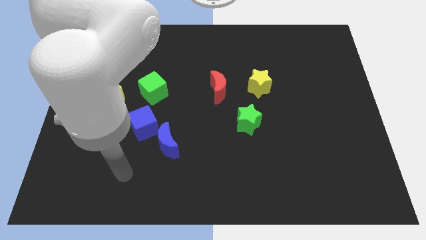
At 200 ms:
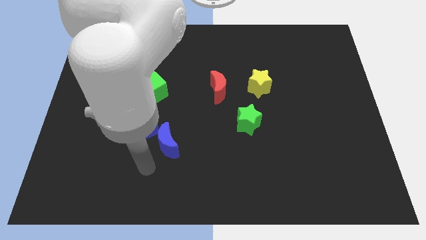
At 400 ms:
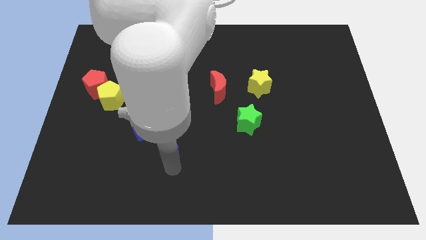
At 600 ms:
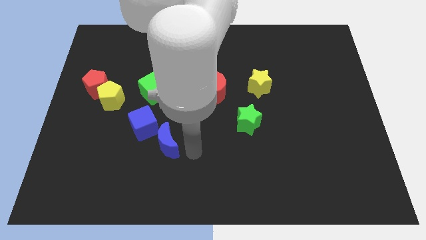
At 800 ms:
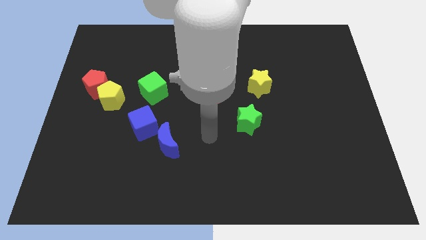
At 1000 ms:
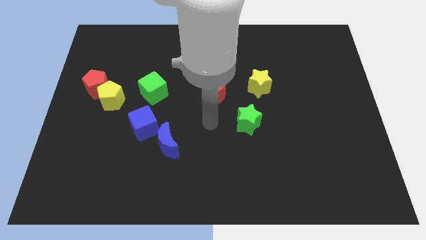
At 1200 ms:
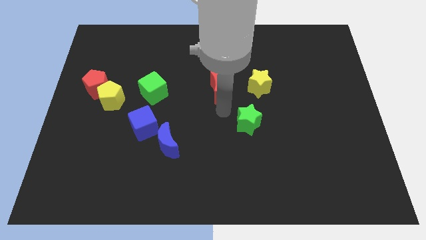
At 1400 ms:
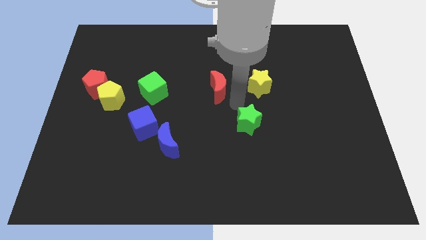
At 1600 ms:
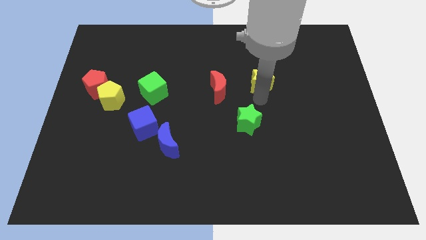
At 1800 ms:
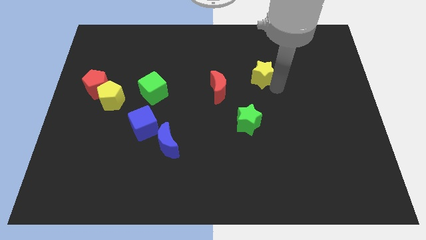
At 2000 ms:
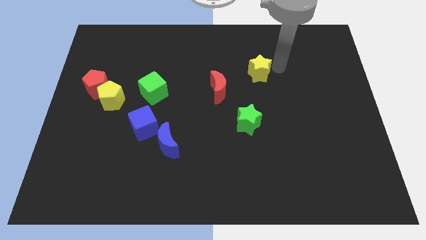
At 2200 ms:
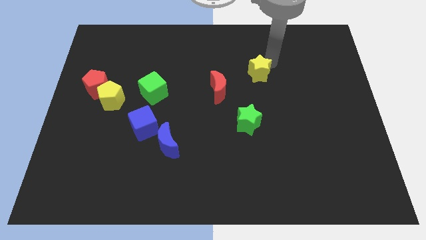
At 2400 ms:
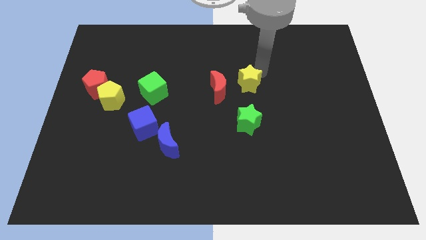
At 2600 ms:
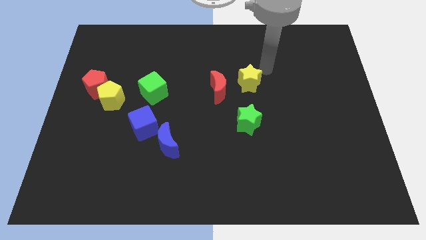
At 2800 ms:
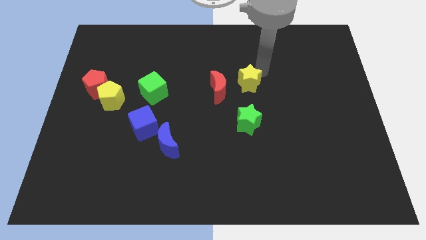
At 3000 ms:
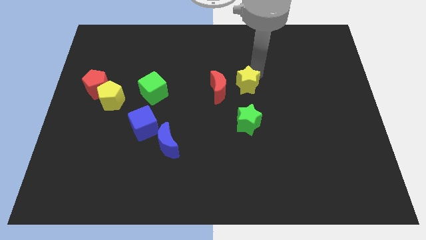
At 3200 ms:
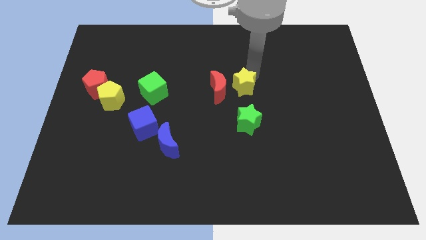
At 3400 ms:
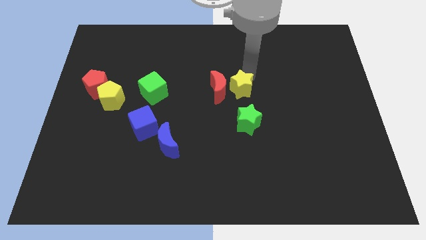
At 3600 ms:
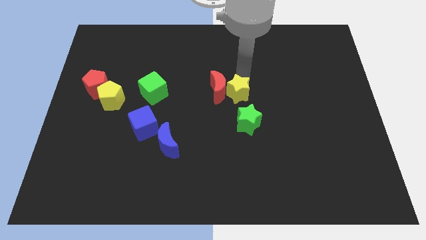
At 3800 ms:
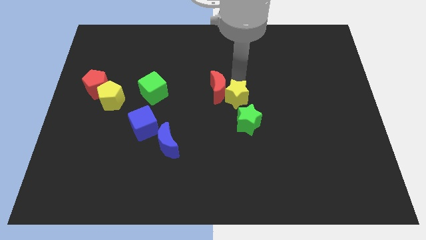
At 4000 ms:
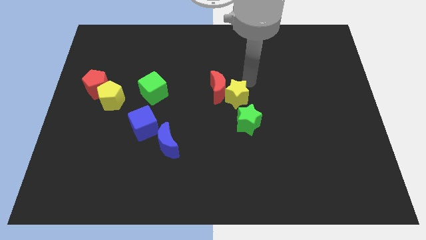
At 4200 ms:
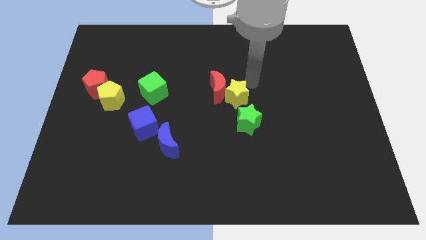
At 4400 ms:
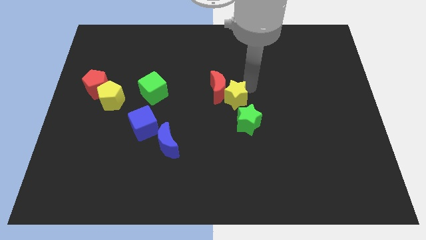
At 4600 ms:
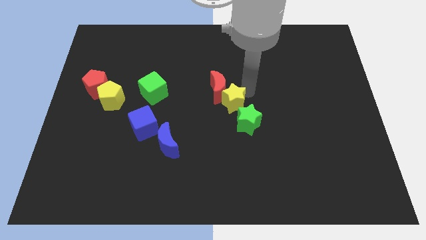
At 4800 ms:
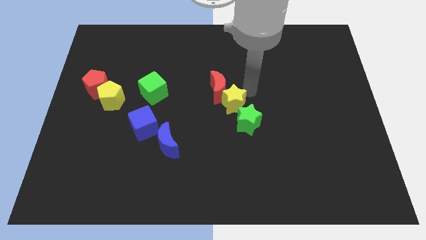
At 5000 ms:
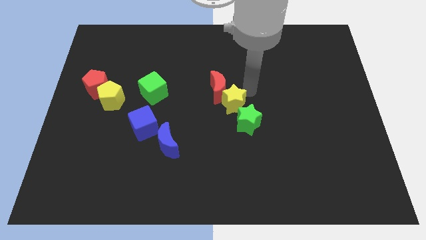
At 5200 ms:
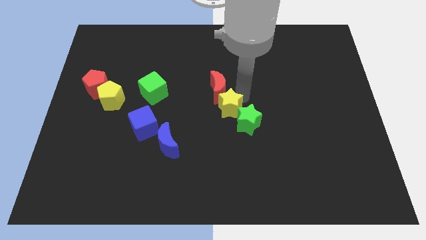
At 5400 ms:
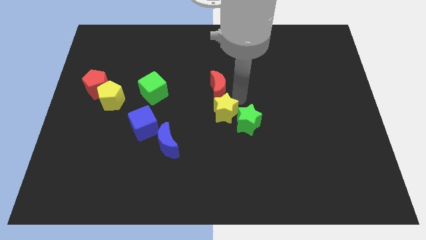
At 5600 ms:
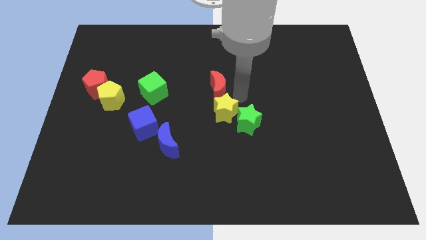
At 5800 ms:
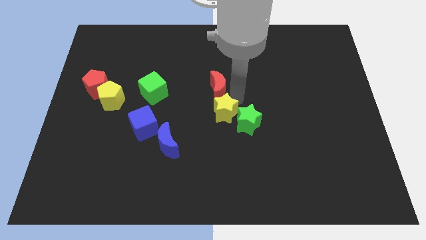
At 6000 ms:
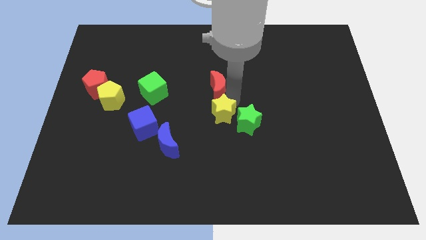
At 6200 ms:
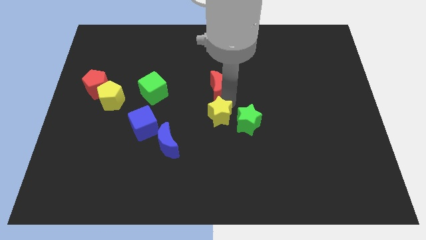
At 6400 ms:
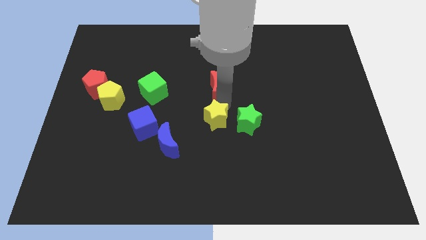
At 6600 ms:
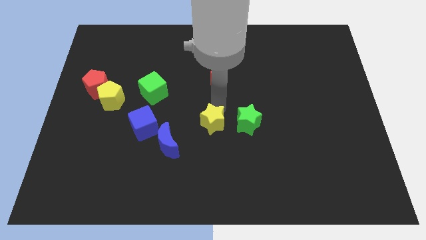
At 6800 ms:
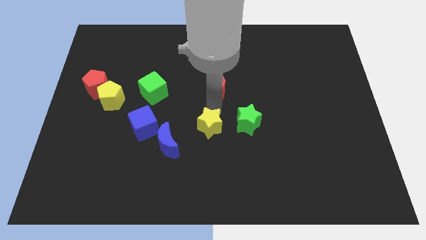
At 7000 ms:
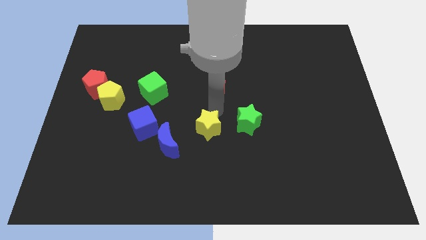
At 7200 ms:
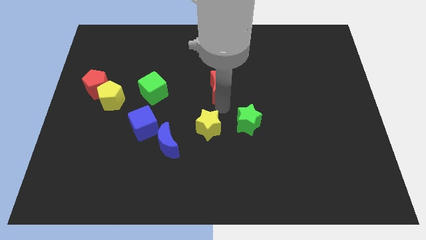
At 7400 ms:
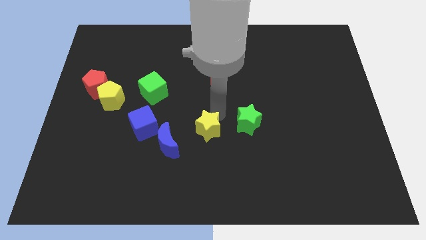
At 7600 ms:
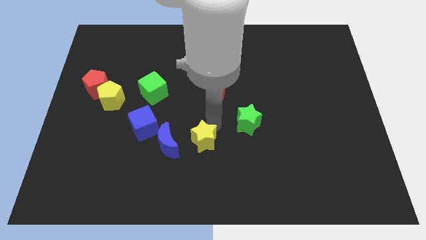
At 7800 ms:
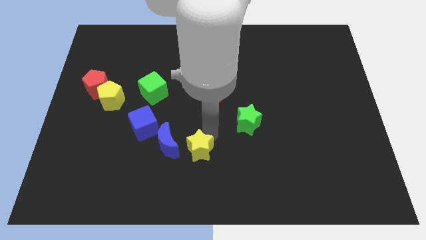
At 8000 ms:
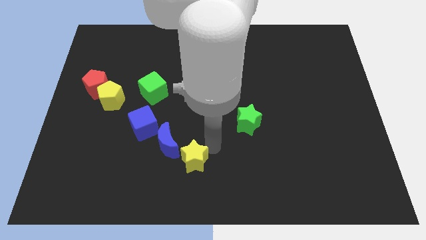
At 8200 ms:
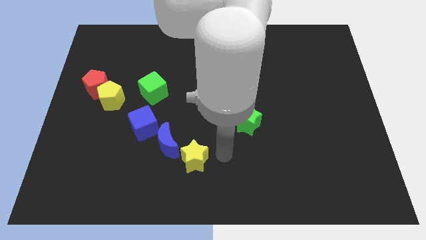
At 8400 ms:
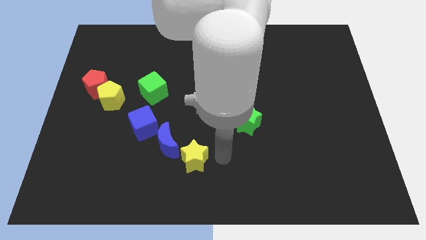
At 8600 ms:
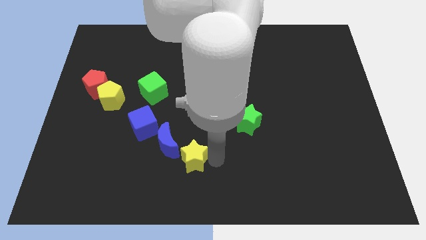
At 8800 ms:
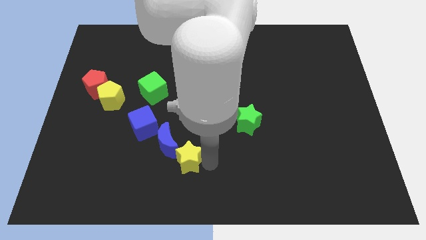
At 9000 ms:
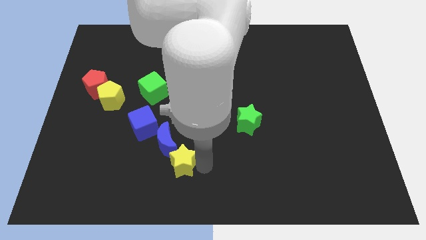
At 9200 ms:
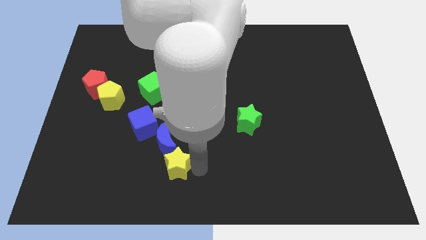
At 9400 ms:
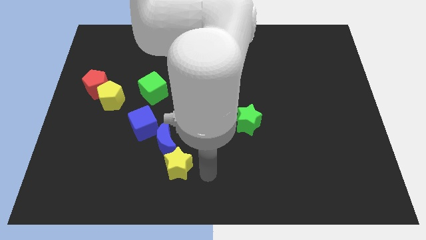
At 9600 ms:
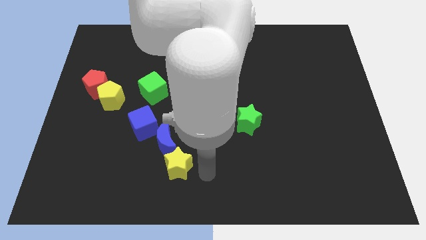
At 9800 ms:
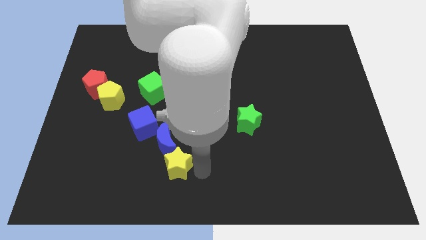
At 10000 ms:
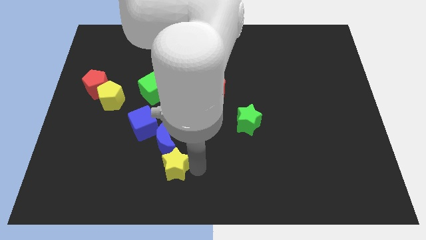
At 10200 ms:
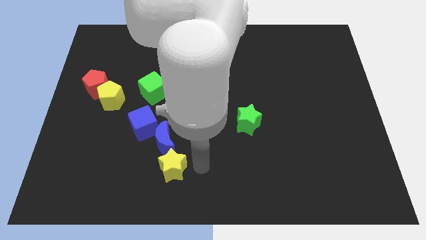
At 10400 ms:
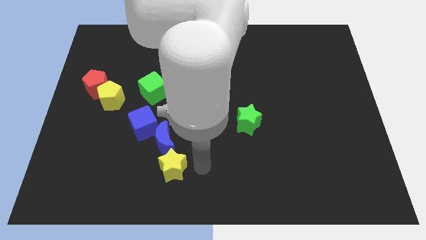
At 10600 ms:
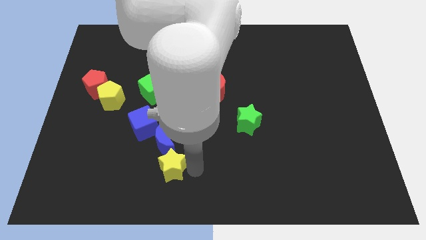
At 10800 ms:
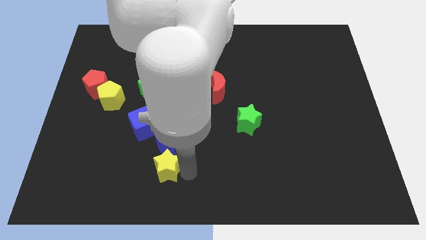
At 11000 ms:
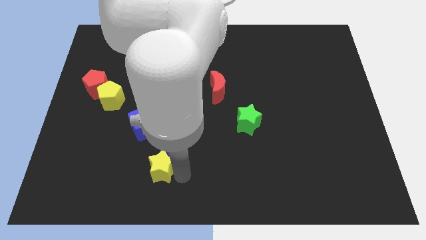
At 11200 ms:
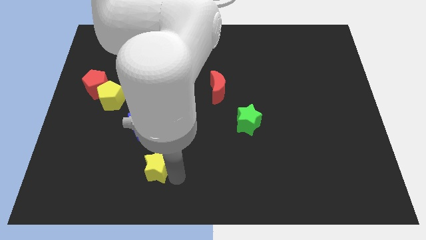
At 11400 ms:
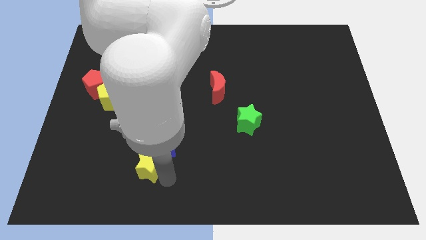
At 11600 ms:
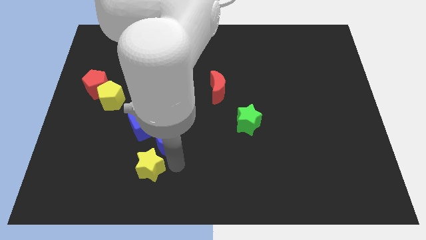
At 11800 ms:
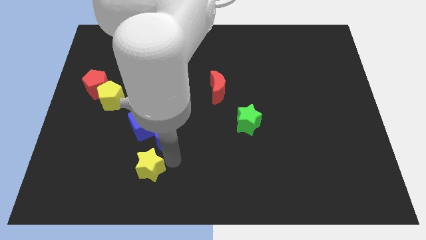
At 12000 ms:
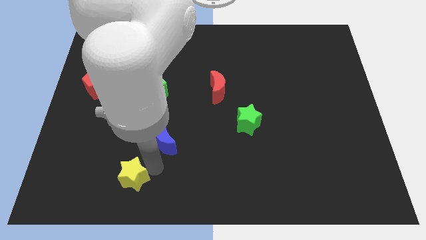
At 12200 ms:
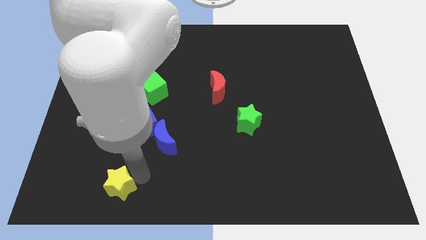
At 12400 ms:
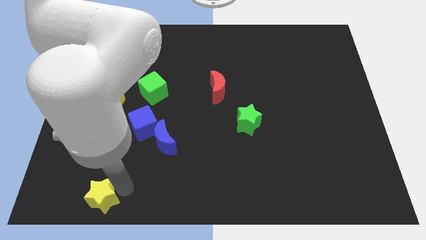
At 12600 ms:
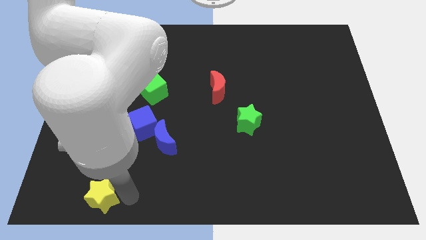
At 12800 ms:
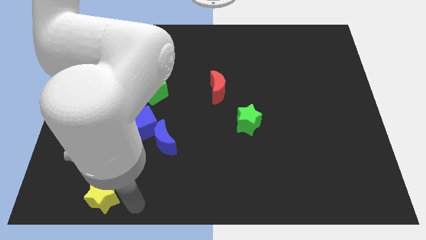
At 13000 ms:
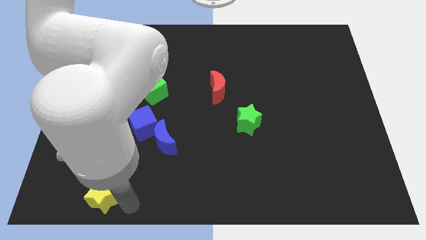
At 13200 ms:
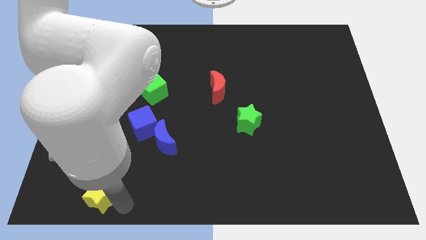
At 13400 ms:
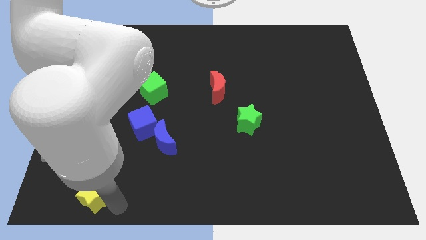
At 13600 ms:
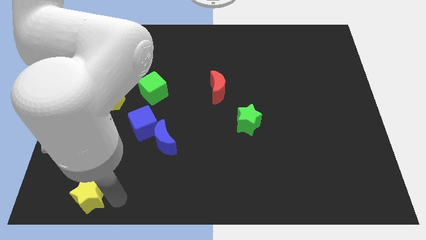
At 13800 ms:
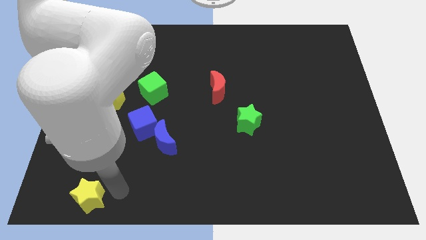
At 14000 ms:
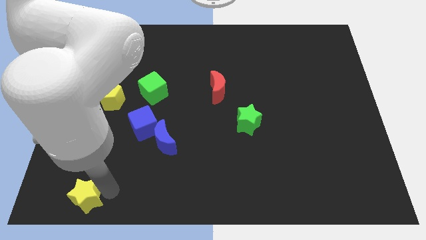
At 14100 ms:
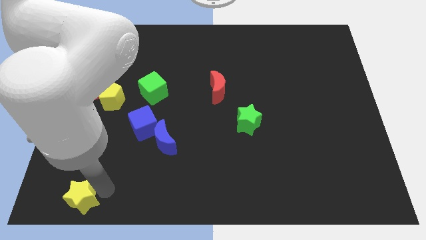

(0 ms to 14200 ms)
push the yellow star to the bottom left corner

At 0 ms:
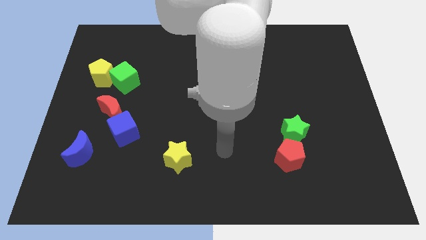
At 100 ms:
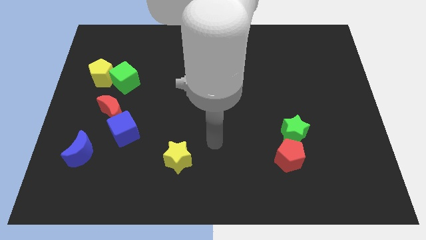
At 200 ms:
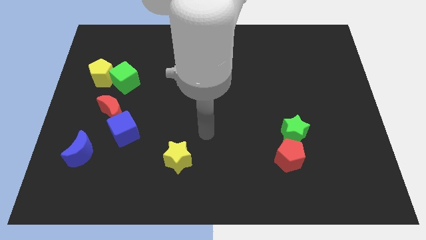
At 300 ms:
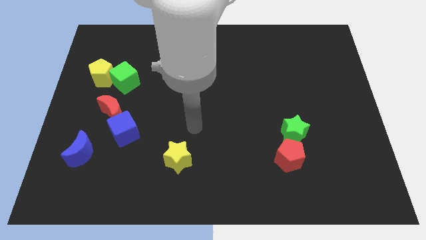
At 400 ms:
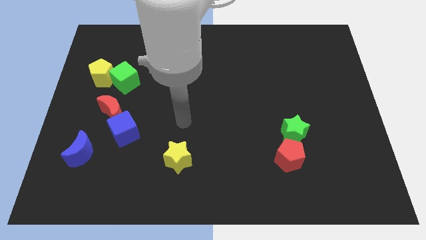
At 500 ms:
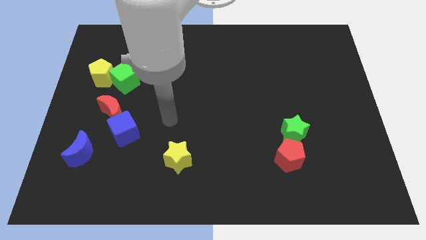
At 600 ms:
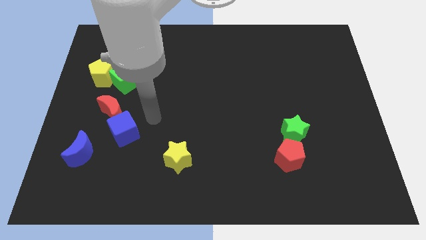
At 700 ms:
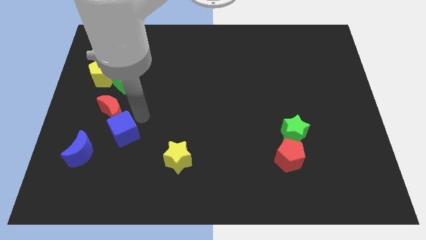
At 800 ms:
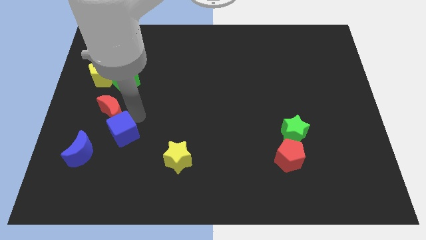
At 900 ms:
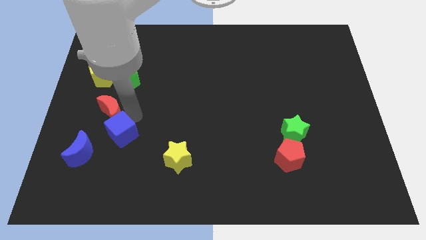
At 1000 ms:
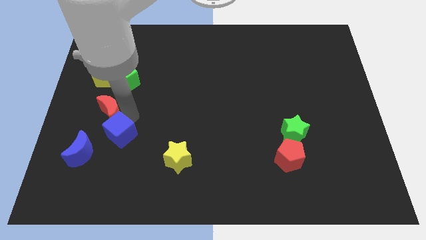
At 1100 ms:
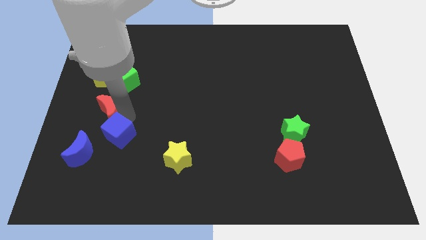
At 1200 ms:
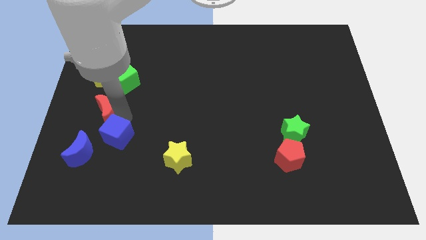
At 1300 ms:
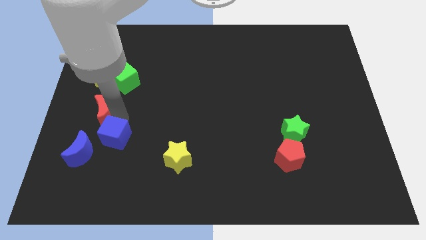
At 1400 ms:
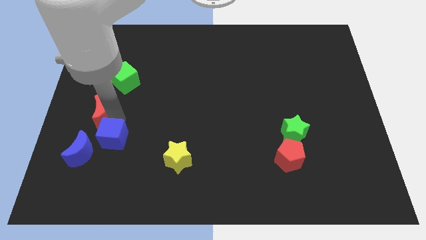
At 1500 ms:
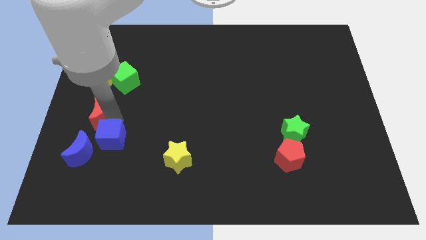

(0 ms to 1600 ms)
put the red moon to the center left
